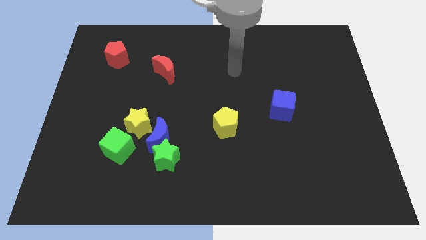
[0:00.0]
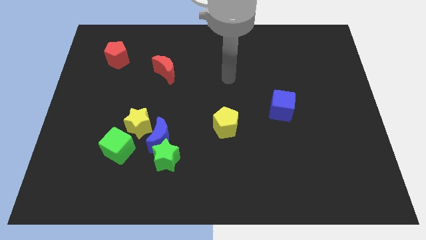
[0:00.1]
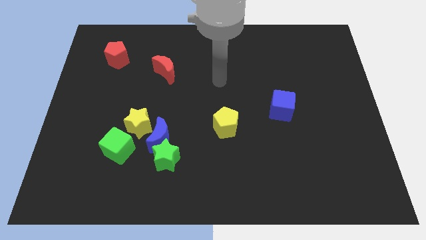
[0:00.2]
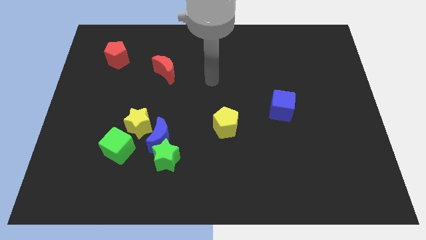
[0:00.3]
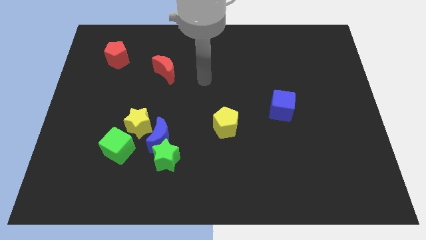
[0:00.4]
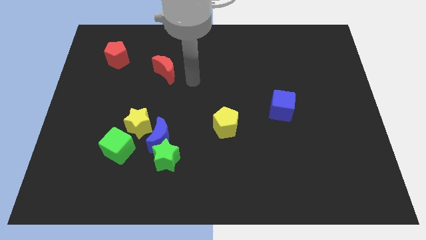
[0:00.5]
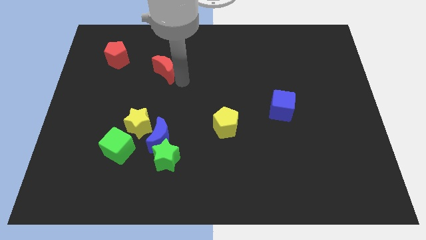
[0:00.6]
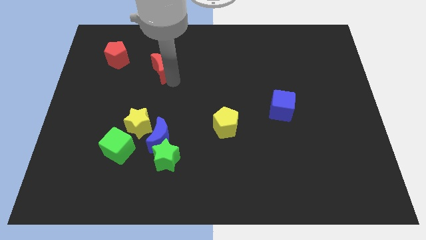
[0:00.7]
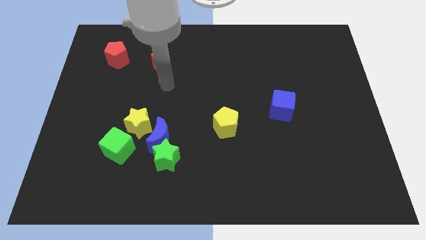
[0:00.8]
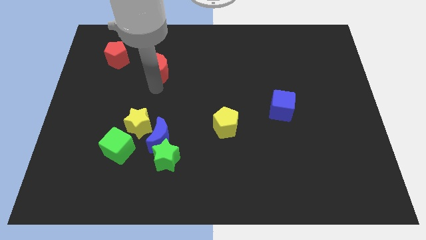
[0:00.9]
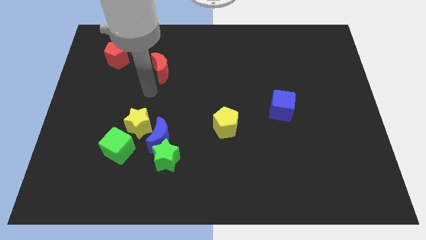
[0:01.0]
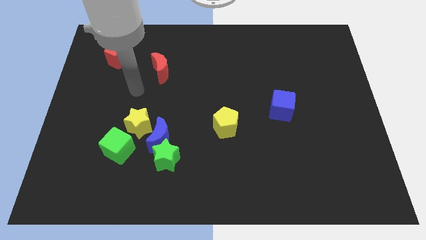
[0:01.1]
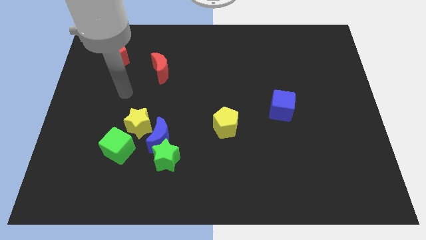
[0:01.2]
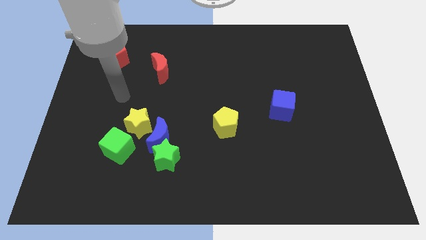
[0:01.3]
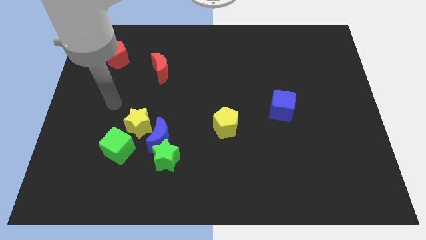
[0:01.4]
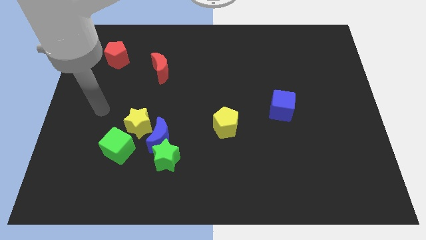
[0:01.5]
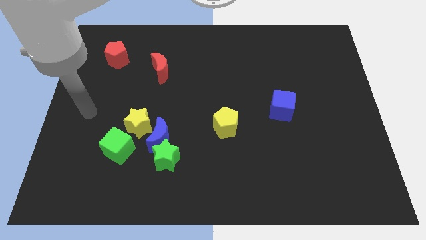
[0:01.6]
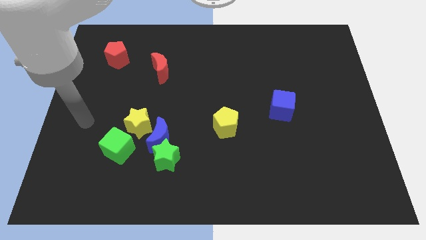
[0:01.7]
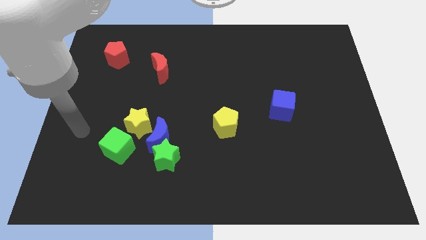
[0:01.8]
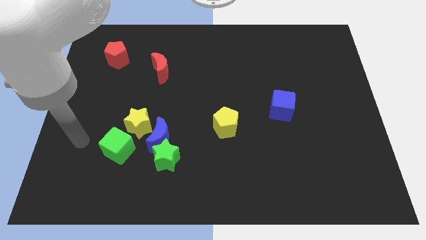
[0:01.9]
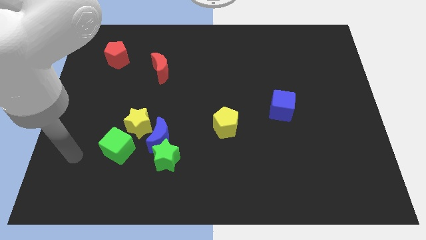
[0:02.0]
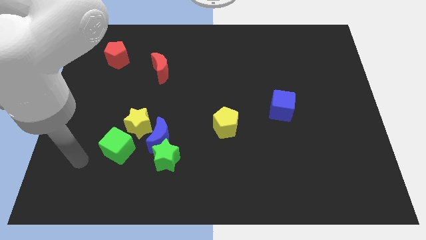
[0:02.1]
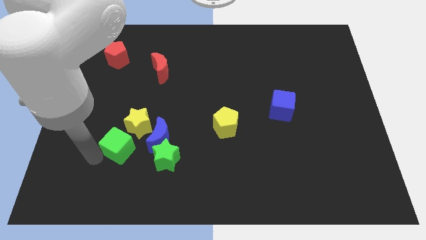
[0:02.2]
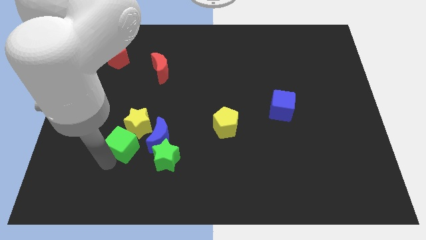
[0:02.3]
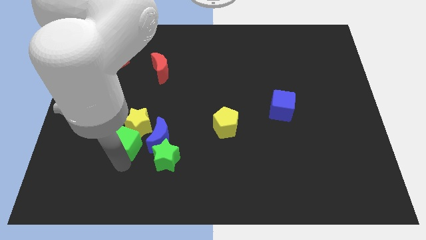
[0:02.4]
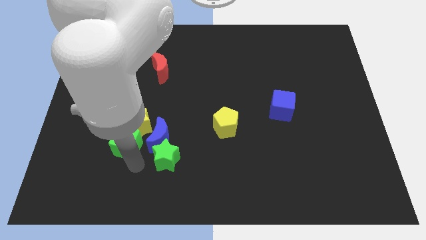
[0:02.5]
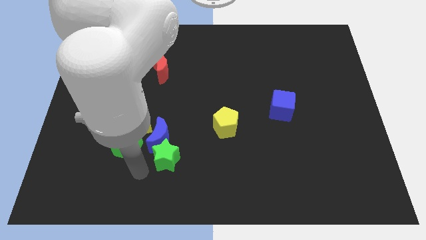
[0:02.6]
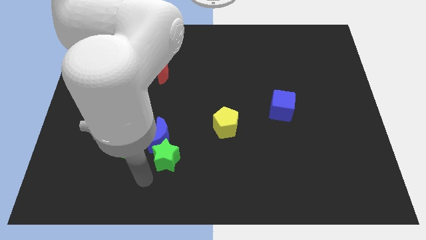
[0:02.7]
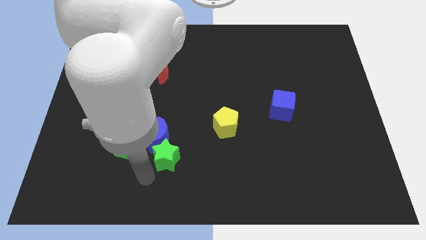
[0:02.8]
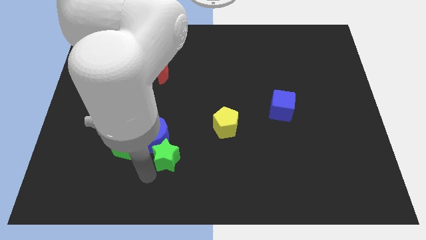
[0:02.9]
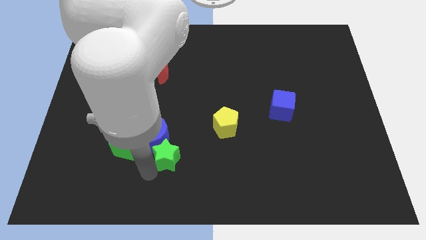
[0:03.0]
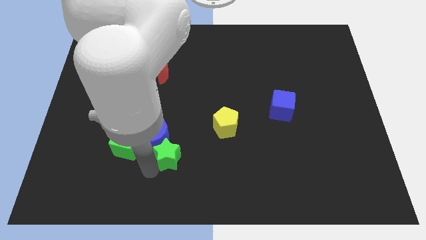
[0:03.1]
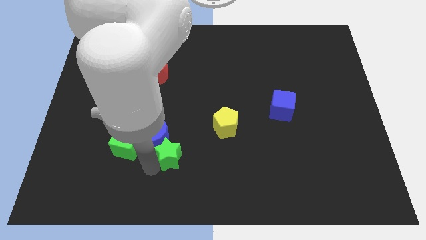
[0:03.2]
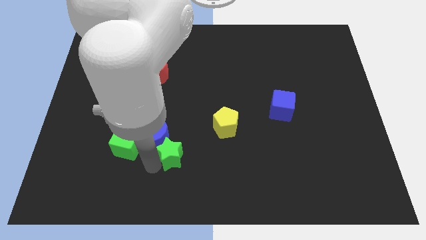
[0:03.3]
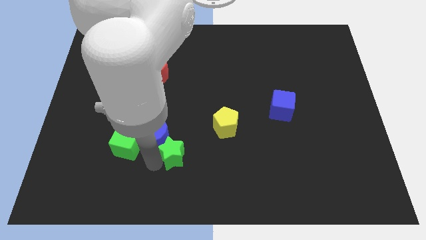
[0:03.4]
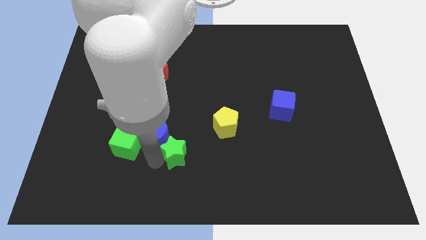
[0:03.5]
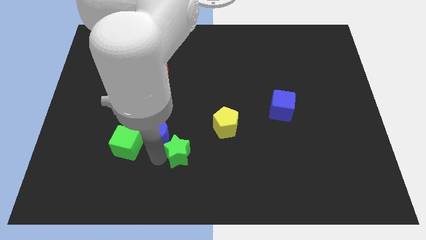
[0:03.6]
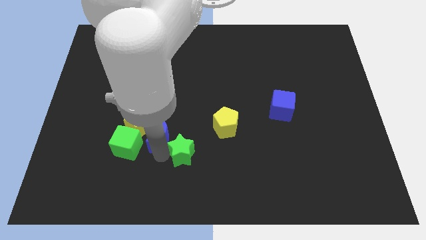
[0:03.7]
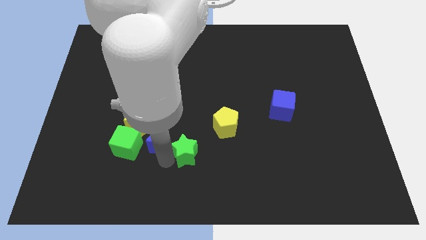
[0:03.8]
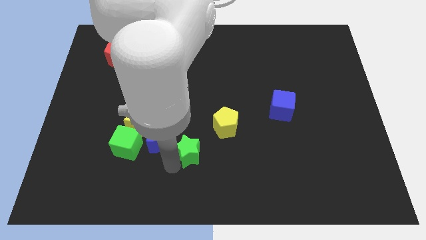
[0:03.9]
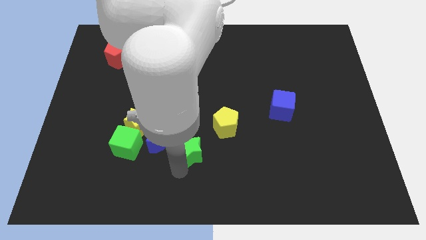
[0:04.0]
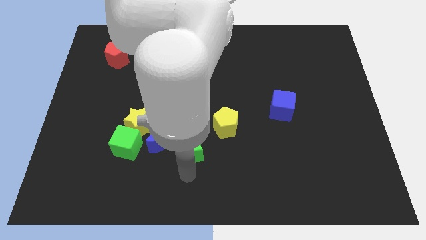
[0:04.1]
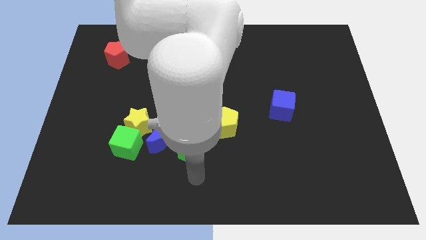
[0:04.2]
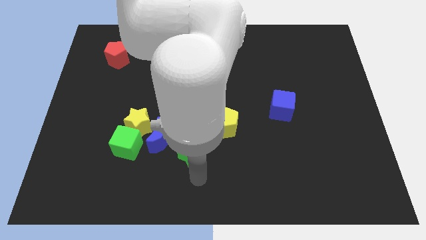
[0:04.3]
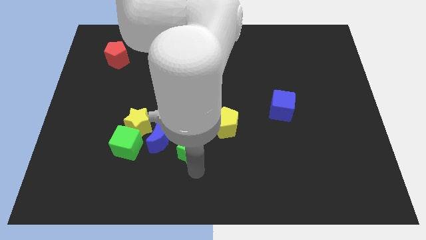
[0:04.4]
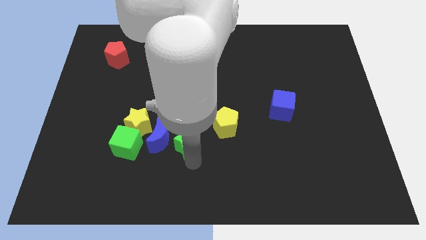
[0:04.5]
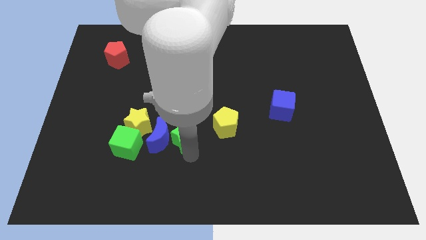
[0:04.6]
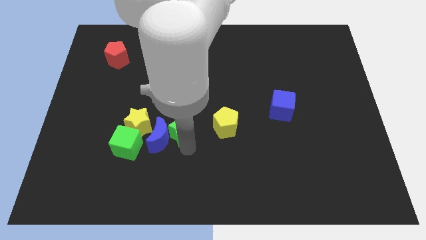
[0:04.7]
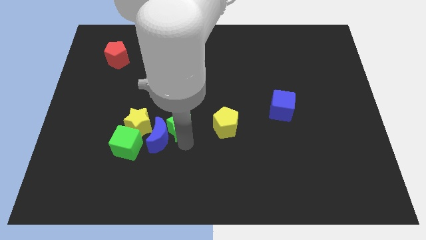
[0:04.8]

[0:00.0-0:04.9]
move the green star upwards a bit

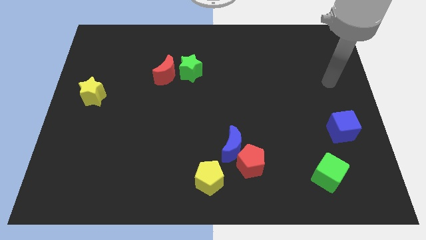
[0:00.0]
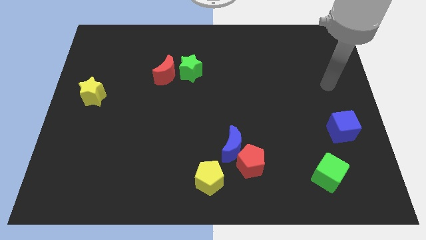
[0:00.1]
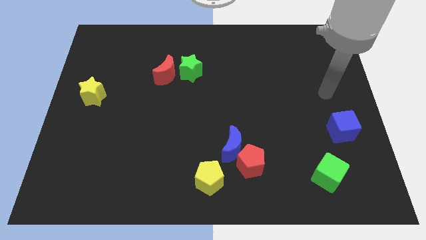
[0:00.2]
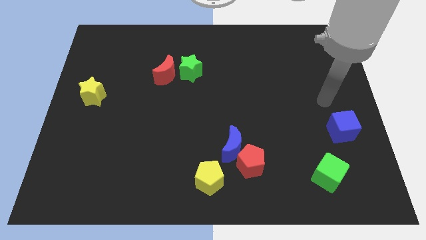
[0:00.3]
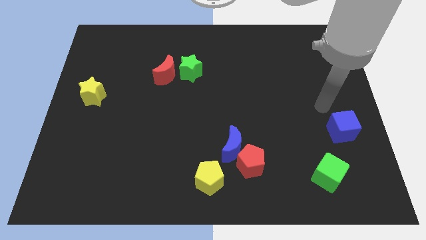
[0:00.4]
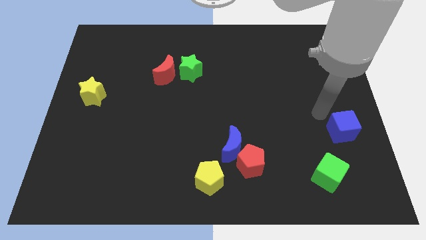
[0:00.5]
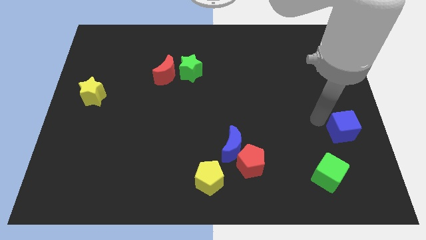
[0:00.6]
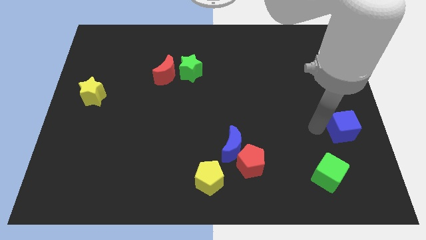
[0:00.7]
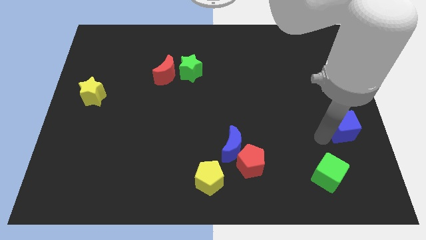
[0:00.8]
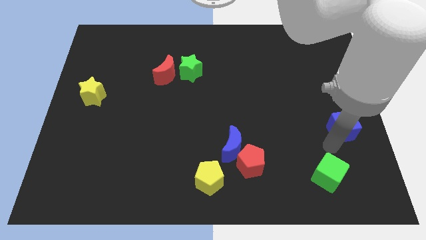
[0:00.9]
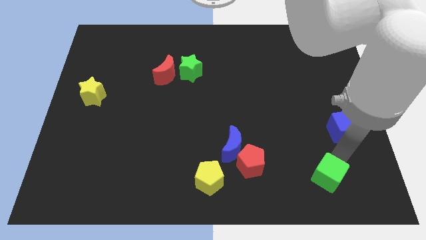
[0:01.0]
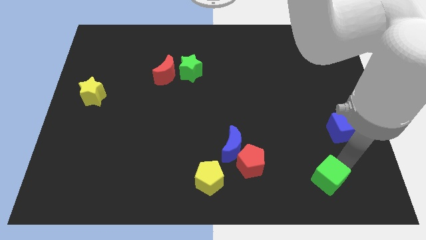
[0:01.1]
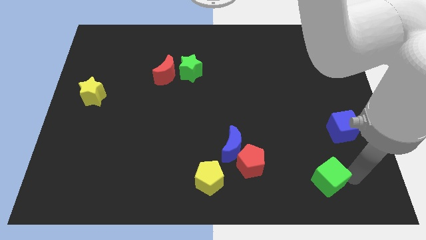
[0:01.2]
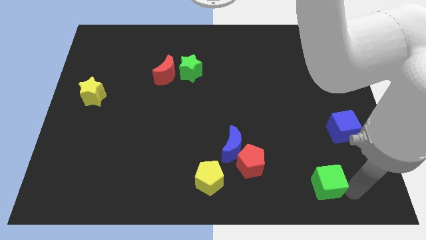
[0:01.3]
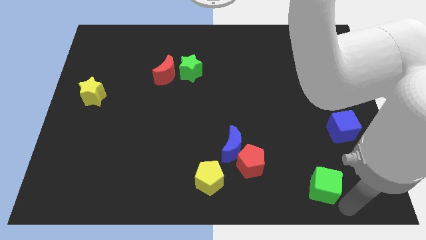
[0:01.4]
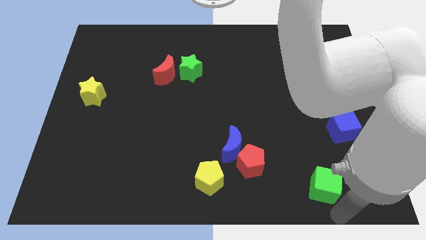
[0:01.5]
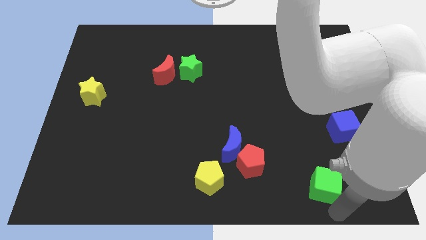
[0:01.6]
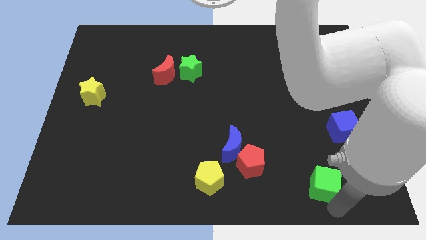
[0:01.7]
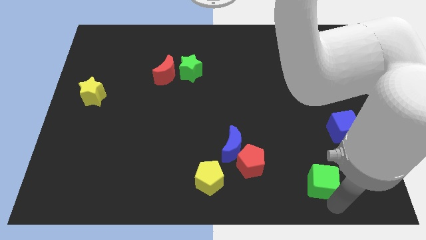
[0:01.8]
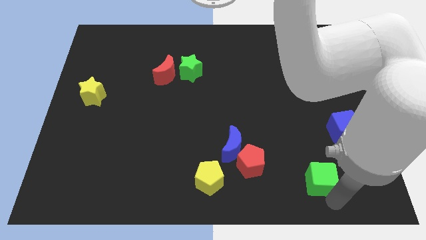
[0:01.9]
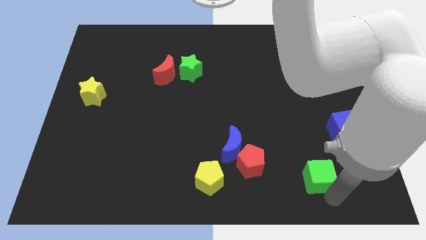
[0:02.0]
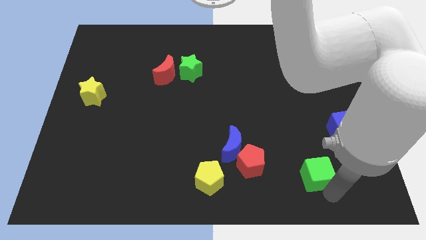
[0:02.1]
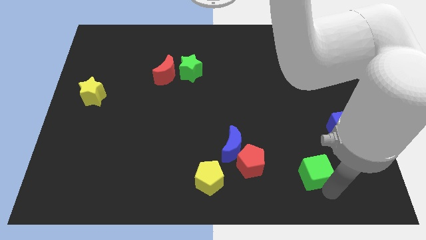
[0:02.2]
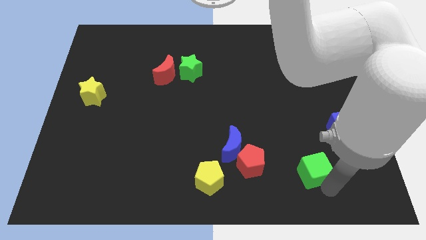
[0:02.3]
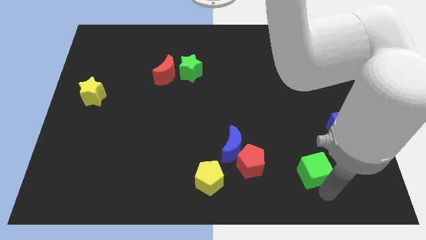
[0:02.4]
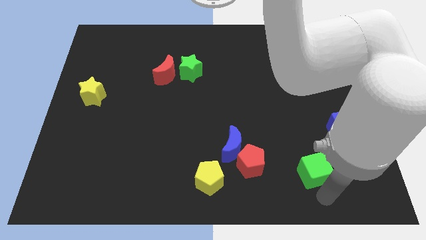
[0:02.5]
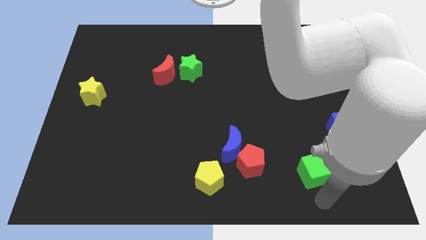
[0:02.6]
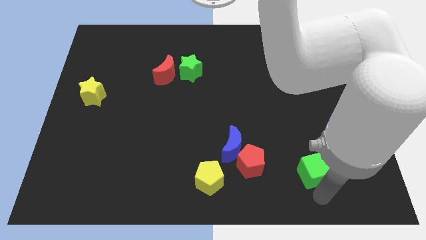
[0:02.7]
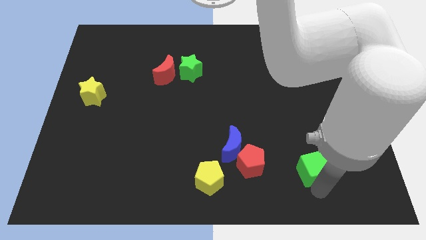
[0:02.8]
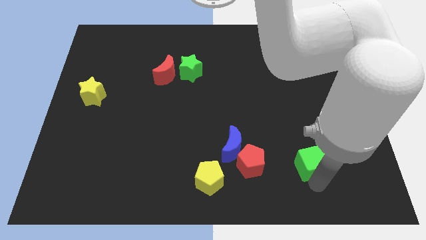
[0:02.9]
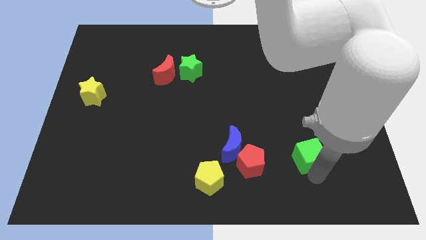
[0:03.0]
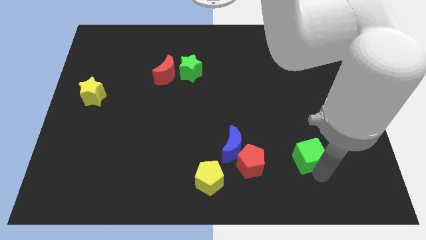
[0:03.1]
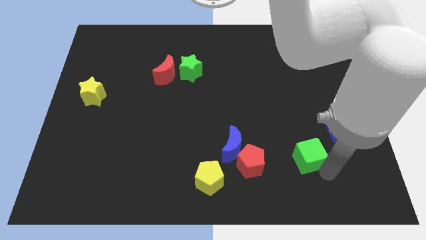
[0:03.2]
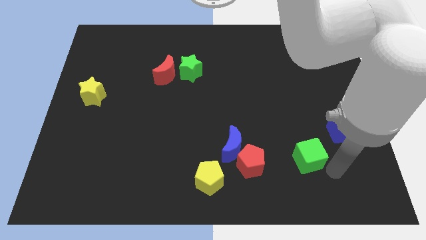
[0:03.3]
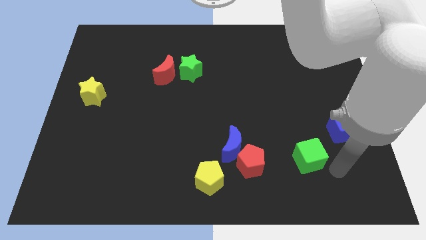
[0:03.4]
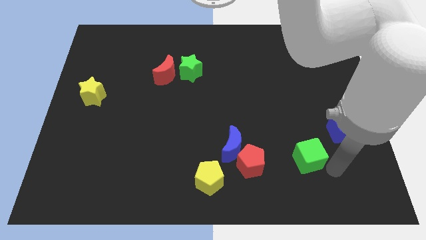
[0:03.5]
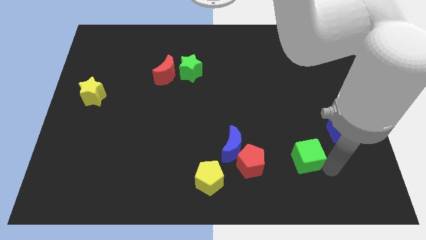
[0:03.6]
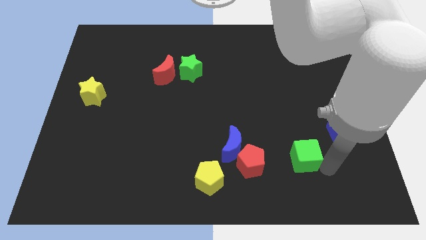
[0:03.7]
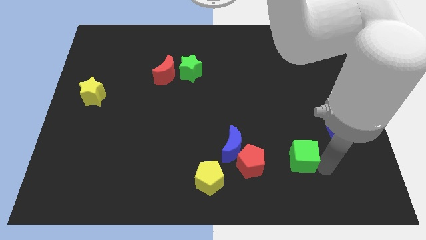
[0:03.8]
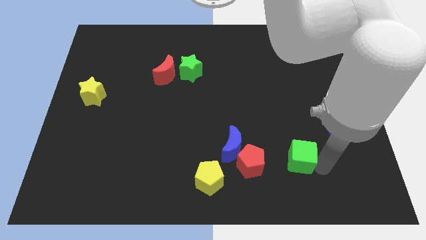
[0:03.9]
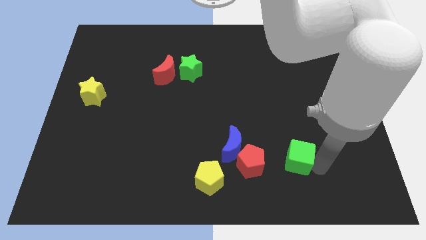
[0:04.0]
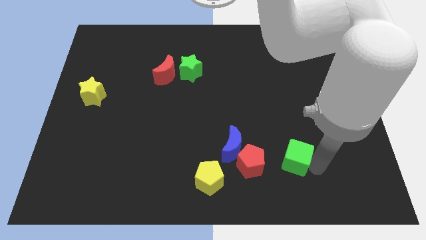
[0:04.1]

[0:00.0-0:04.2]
slightly move the green cube upwards and to the left
